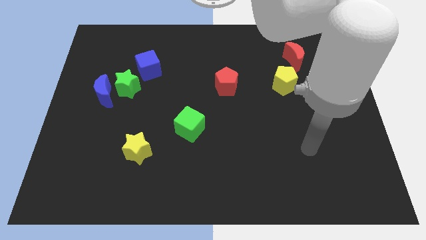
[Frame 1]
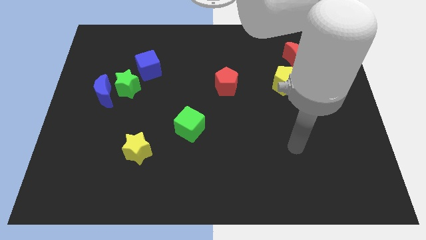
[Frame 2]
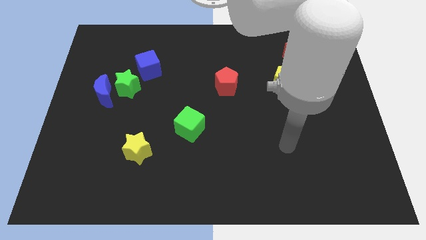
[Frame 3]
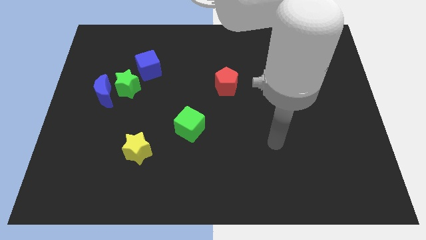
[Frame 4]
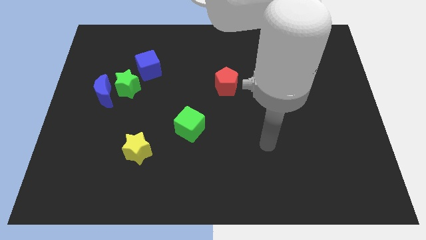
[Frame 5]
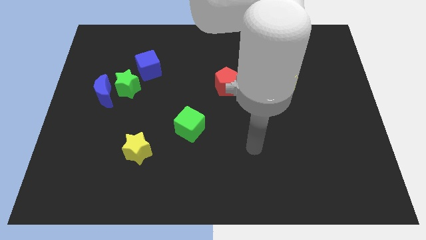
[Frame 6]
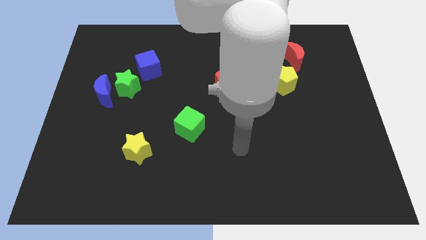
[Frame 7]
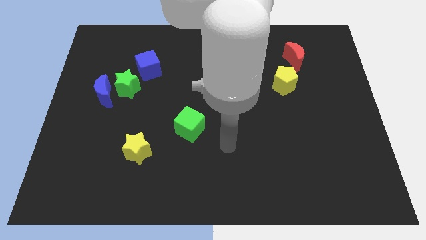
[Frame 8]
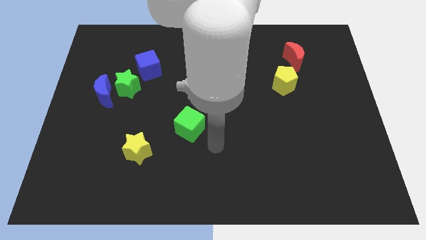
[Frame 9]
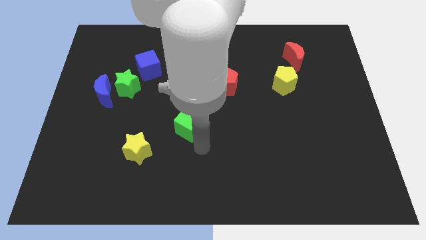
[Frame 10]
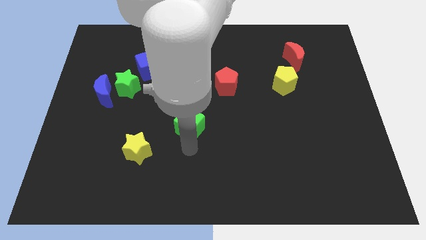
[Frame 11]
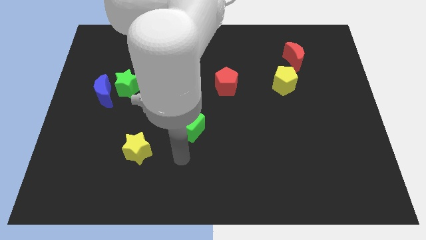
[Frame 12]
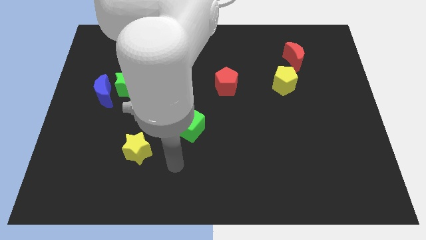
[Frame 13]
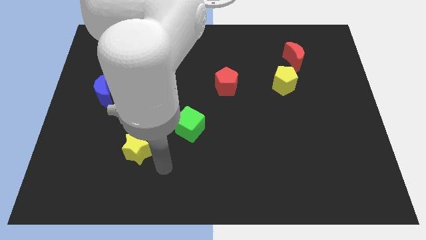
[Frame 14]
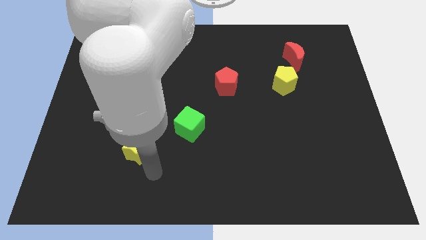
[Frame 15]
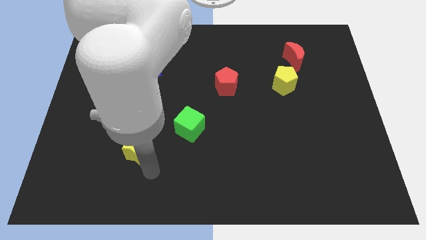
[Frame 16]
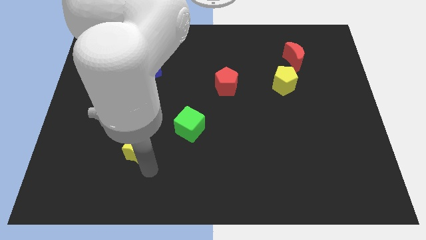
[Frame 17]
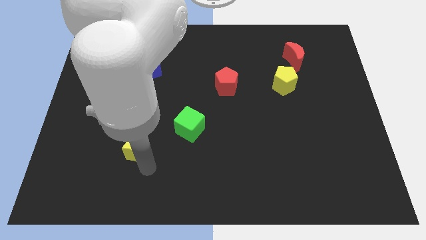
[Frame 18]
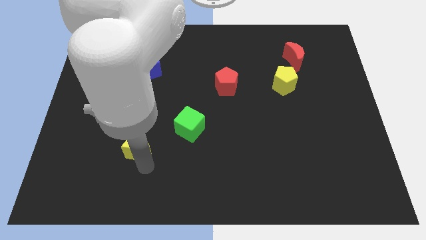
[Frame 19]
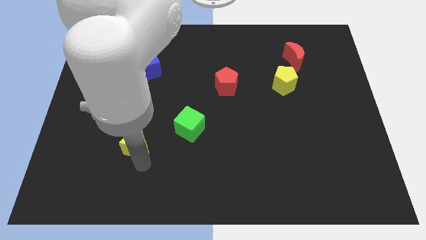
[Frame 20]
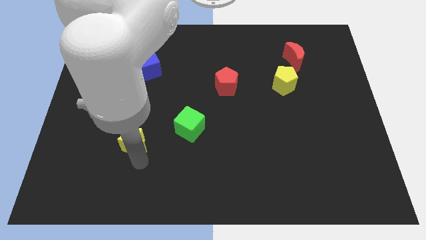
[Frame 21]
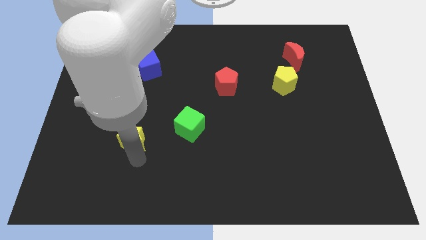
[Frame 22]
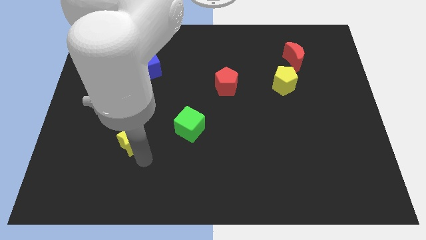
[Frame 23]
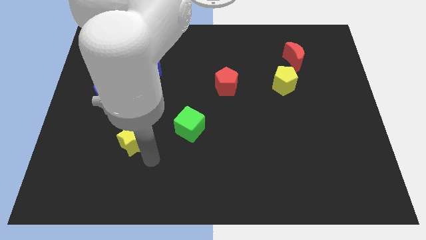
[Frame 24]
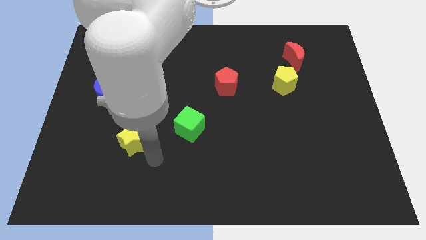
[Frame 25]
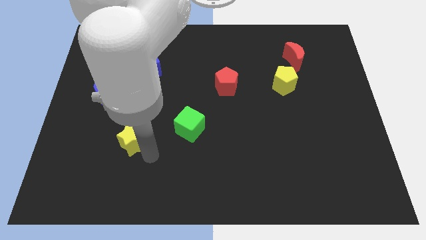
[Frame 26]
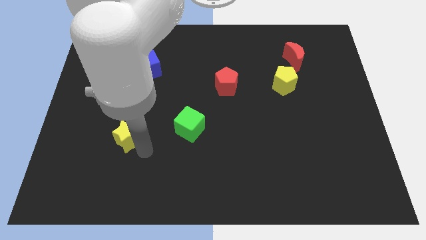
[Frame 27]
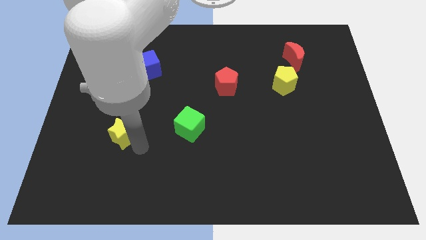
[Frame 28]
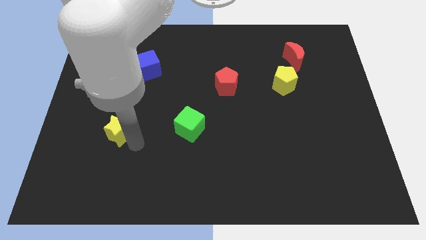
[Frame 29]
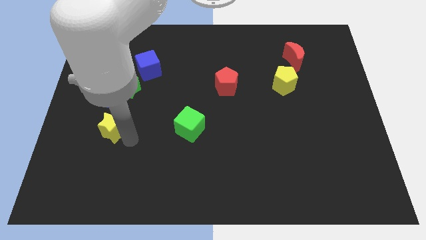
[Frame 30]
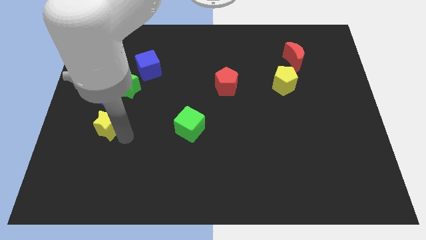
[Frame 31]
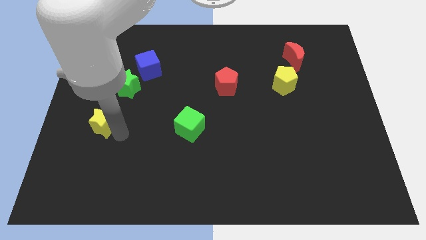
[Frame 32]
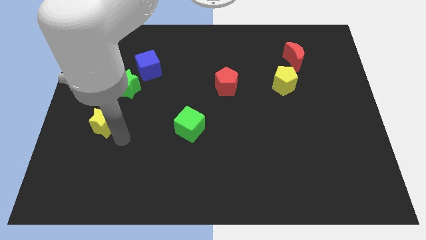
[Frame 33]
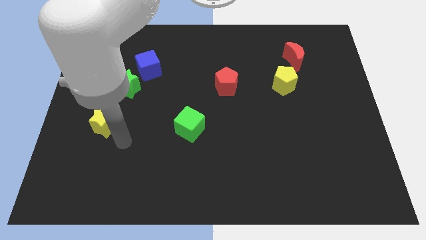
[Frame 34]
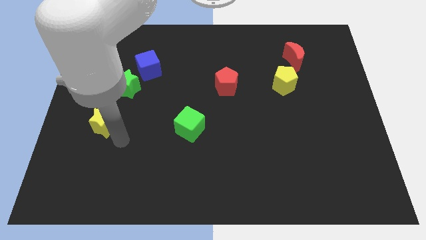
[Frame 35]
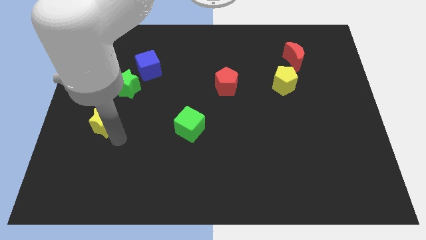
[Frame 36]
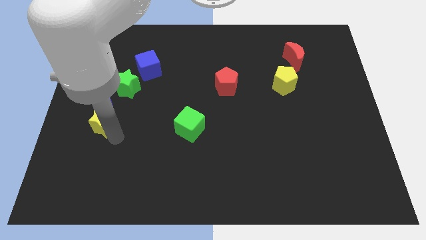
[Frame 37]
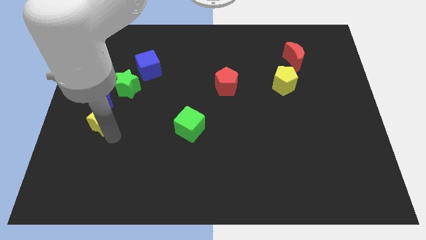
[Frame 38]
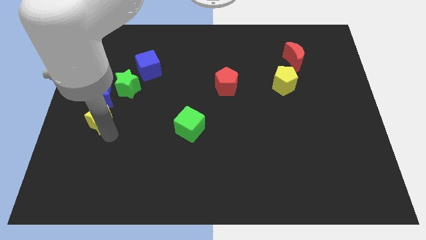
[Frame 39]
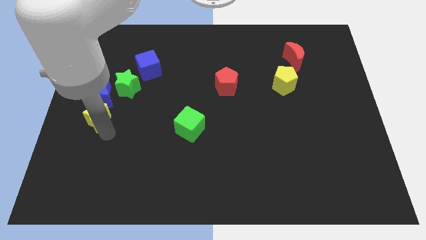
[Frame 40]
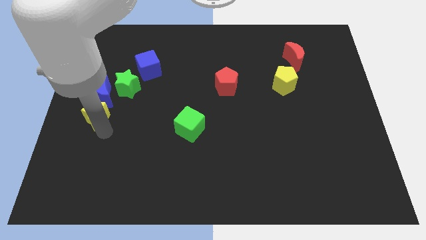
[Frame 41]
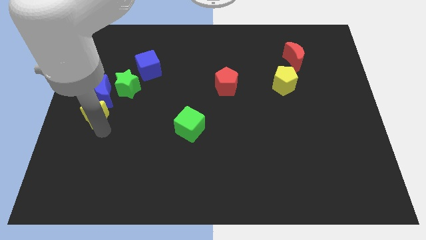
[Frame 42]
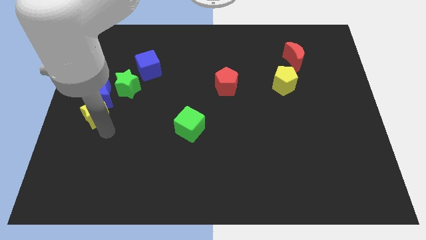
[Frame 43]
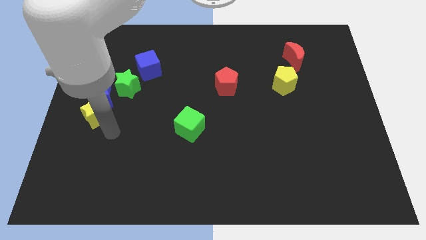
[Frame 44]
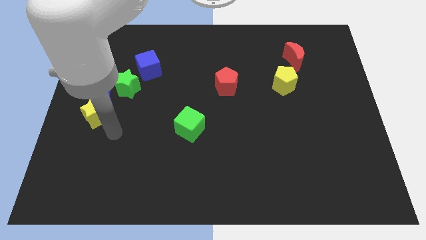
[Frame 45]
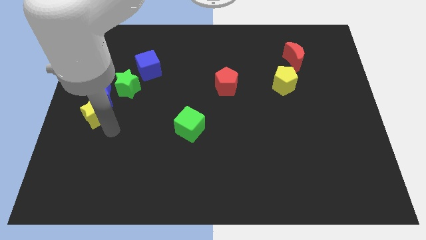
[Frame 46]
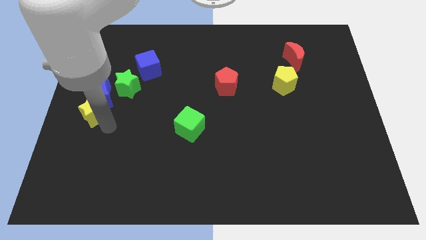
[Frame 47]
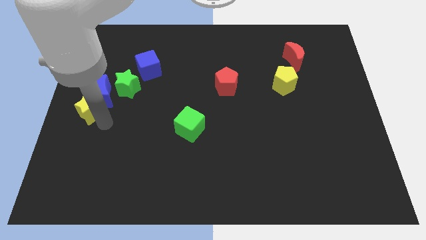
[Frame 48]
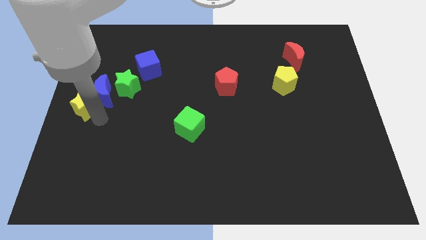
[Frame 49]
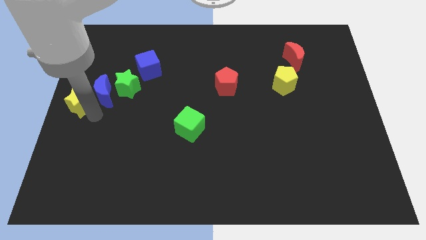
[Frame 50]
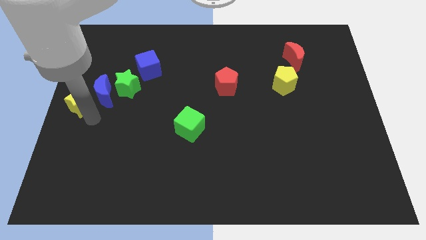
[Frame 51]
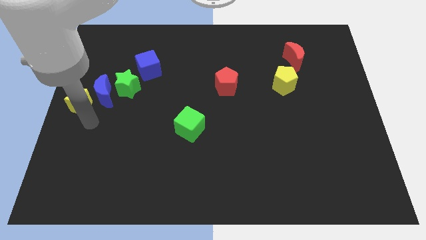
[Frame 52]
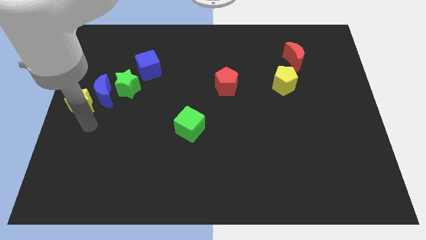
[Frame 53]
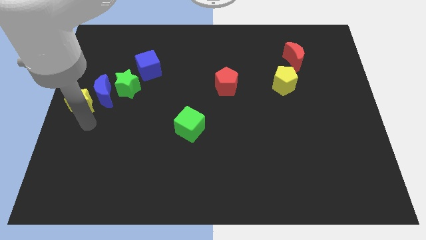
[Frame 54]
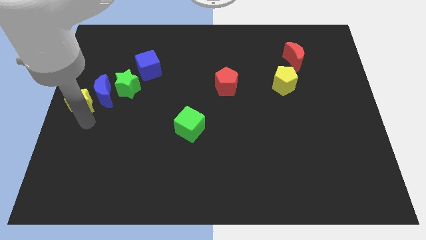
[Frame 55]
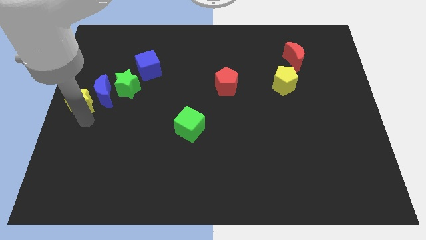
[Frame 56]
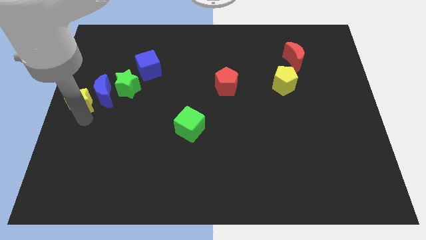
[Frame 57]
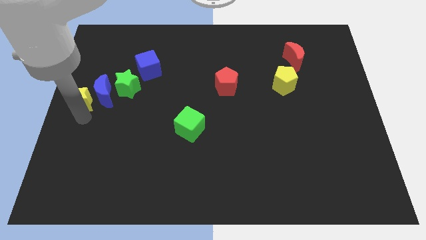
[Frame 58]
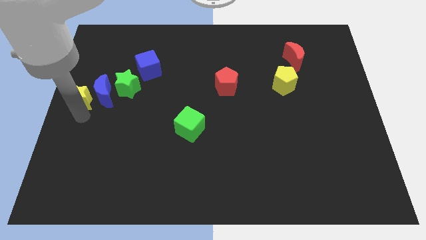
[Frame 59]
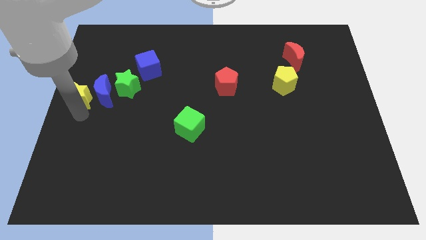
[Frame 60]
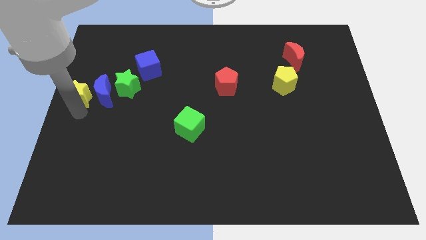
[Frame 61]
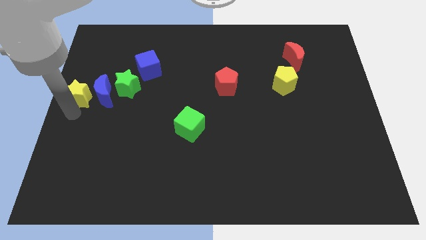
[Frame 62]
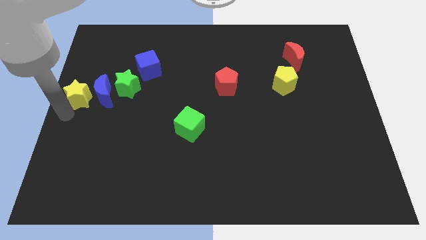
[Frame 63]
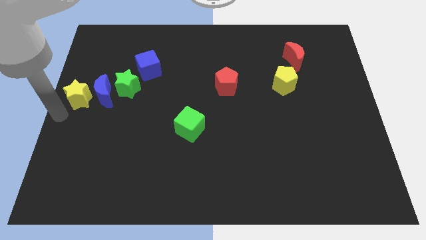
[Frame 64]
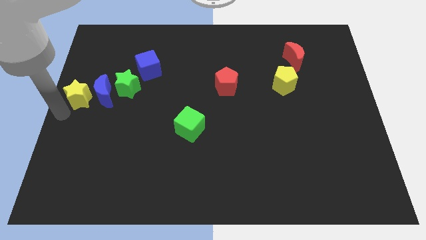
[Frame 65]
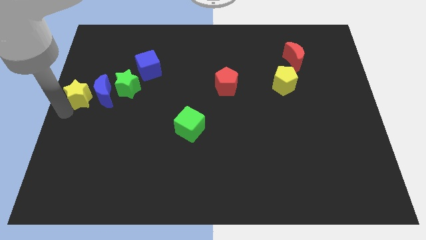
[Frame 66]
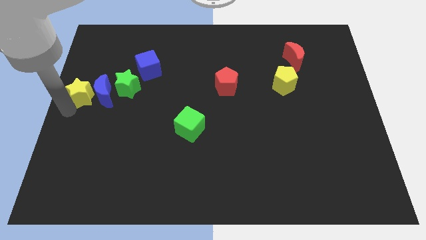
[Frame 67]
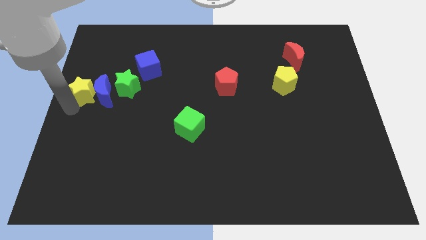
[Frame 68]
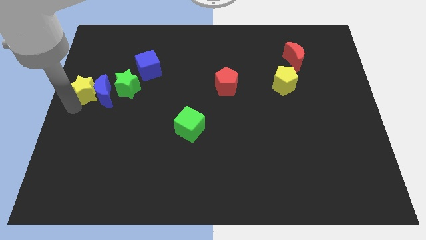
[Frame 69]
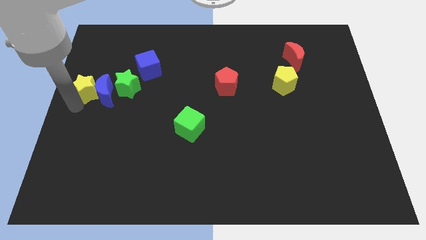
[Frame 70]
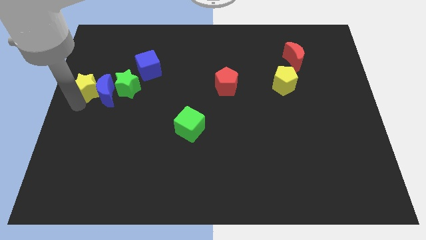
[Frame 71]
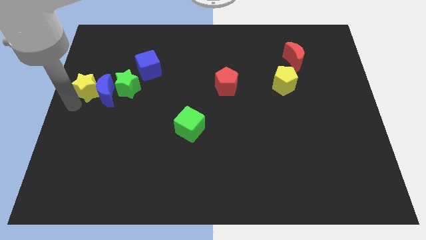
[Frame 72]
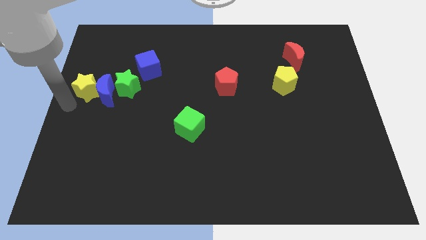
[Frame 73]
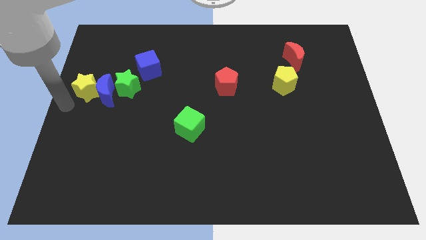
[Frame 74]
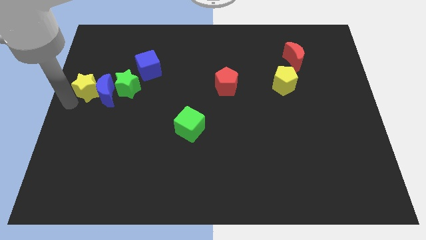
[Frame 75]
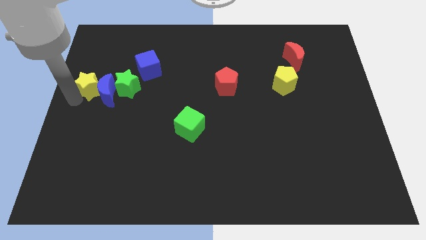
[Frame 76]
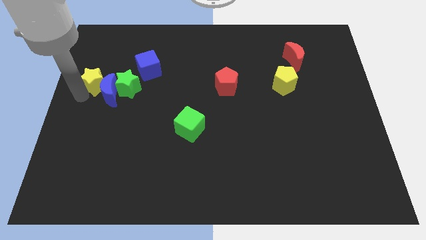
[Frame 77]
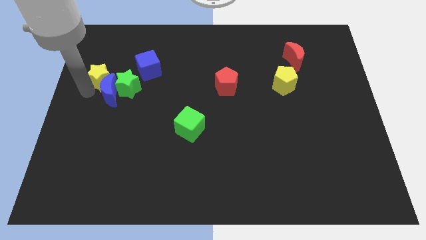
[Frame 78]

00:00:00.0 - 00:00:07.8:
slide the yellow star to the left side of the blue cube

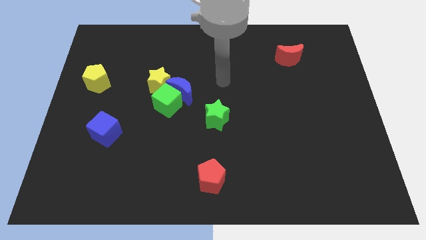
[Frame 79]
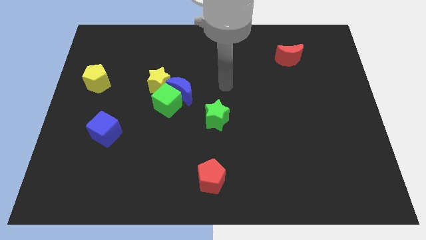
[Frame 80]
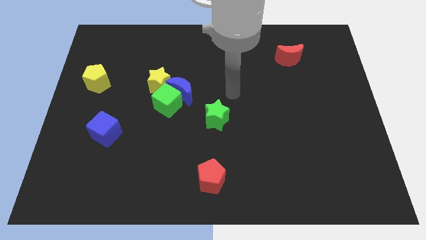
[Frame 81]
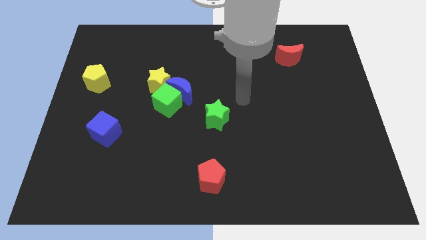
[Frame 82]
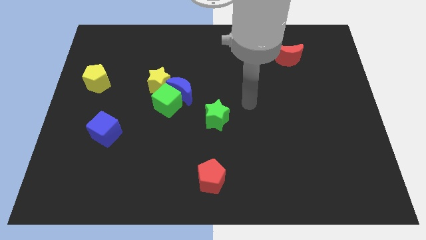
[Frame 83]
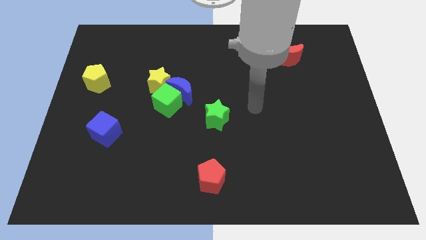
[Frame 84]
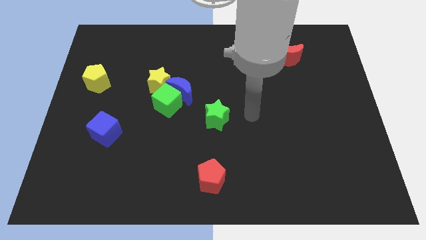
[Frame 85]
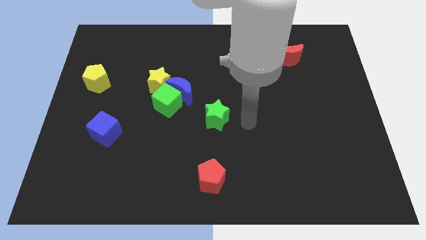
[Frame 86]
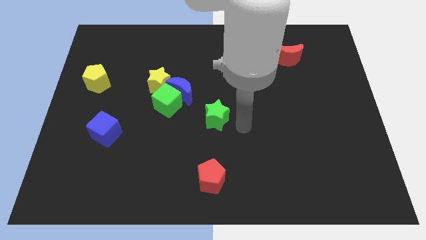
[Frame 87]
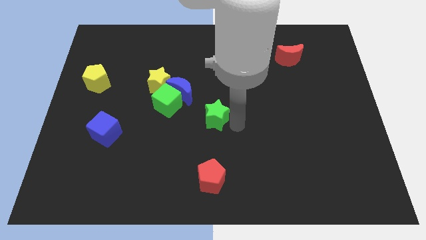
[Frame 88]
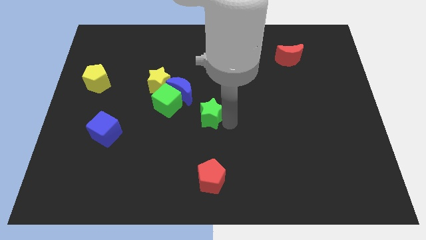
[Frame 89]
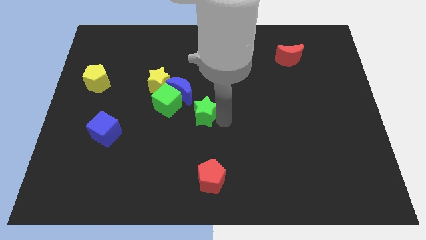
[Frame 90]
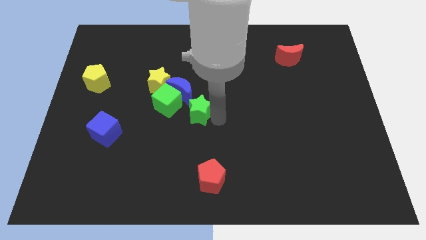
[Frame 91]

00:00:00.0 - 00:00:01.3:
put the green star to the bottom right side of the yellow star
